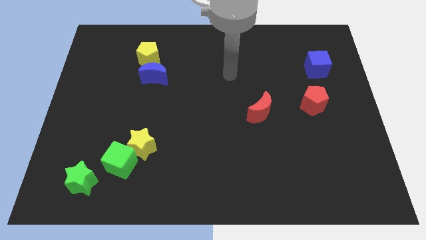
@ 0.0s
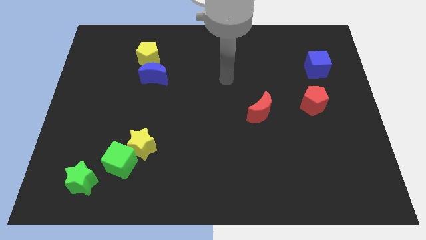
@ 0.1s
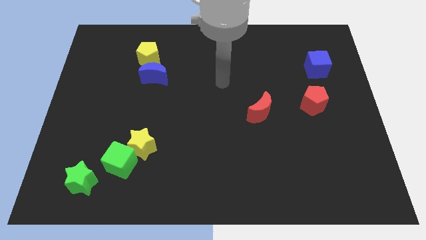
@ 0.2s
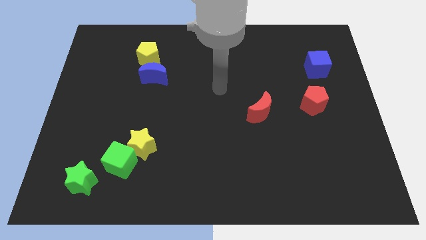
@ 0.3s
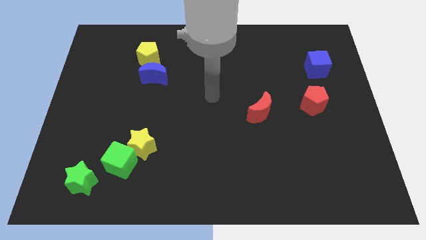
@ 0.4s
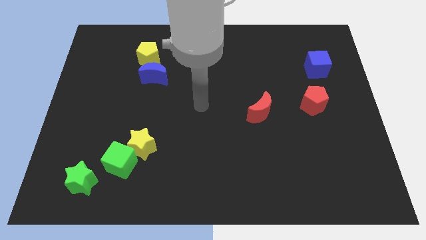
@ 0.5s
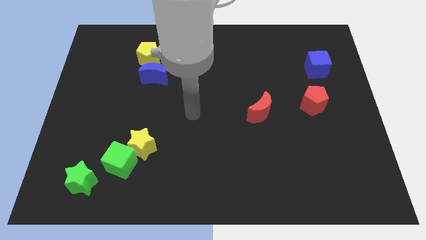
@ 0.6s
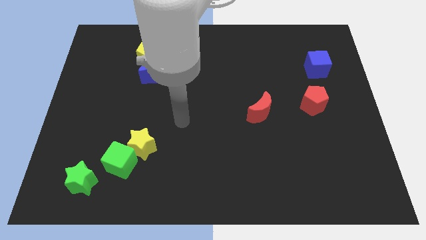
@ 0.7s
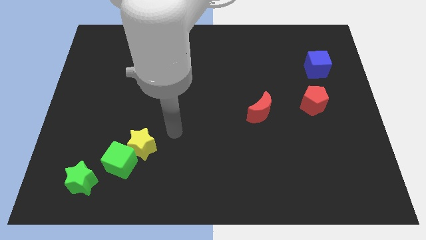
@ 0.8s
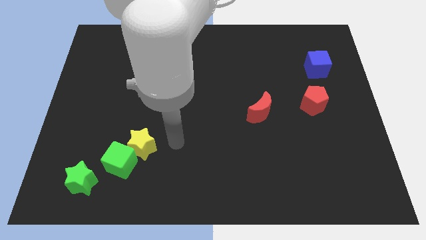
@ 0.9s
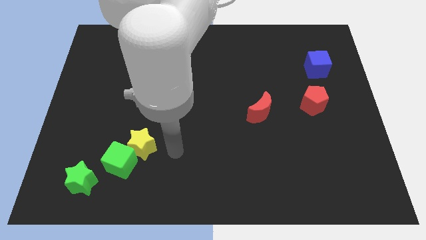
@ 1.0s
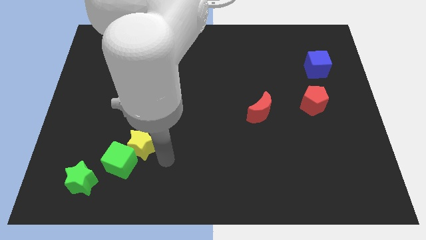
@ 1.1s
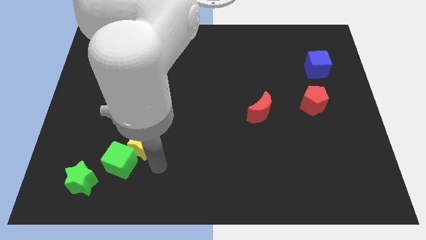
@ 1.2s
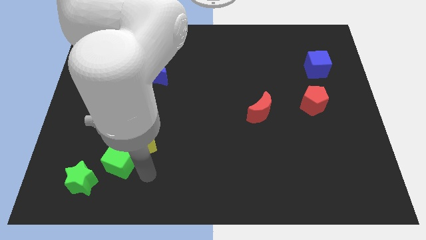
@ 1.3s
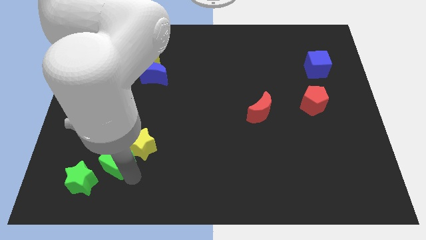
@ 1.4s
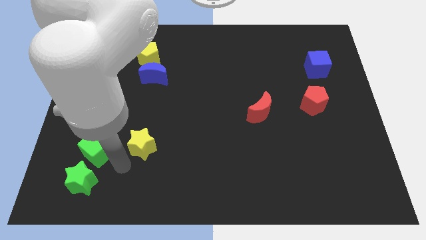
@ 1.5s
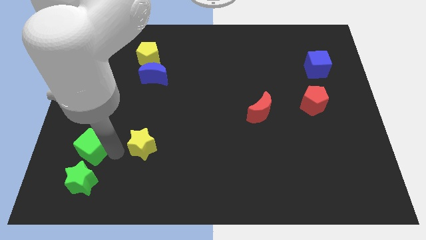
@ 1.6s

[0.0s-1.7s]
separate the yellow star from the green cube

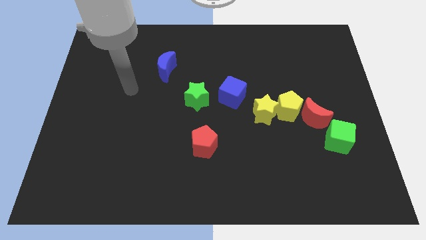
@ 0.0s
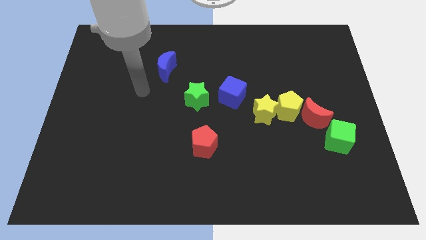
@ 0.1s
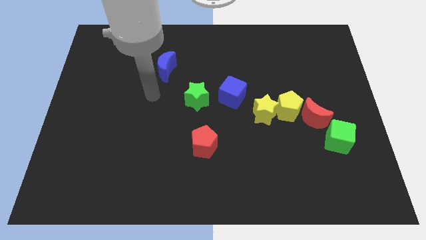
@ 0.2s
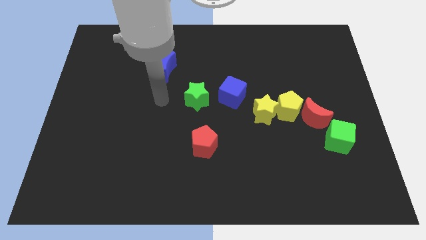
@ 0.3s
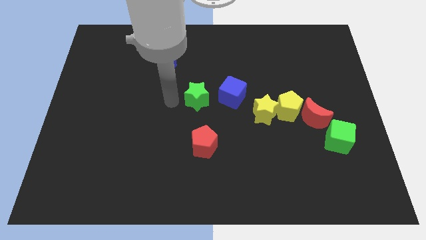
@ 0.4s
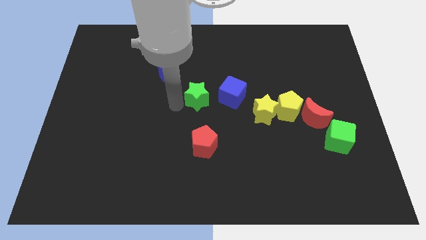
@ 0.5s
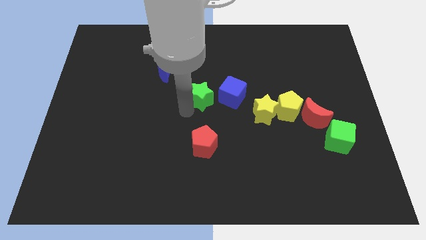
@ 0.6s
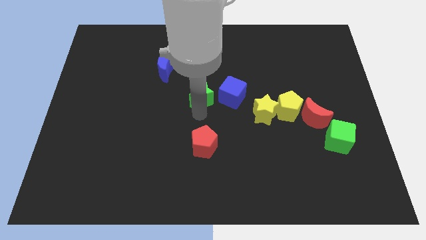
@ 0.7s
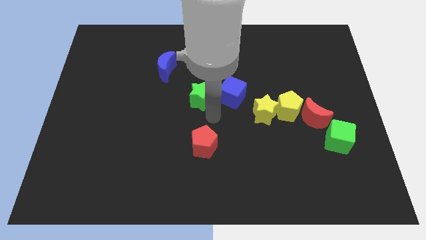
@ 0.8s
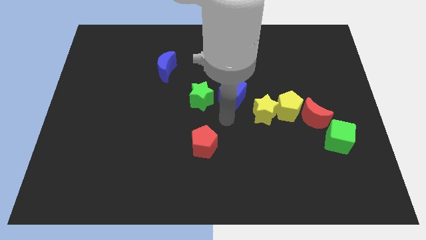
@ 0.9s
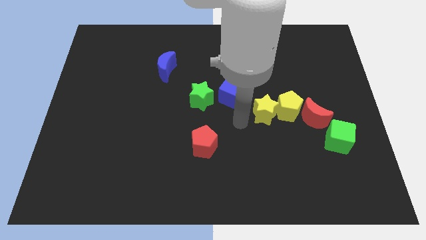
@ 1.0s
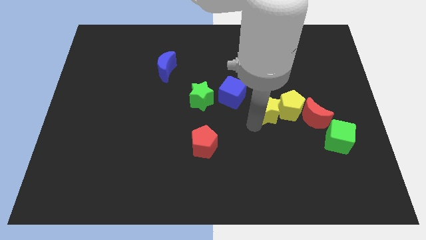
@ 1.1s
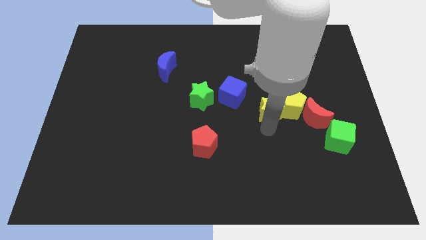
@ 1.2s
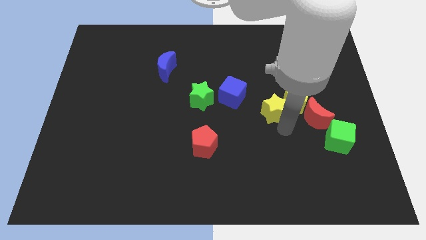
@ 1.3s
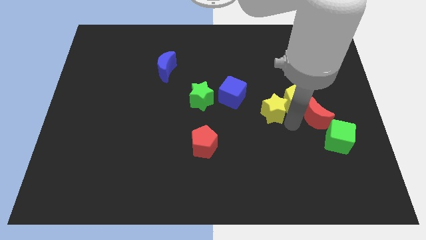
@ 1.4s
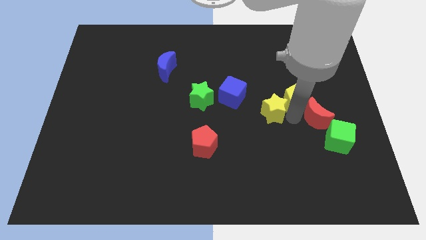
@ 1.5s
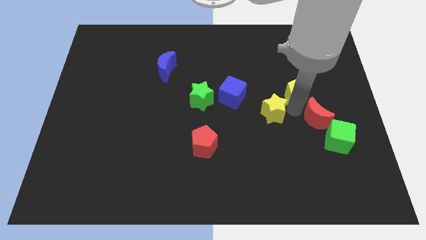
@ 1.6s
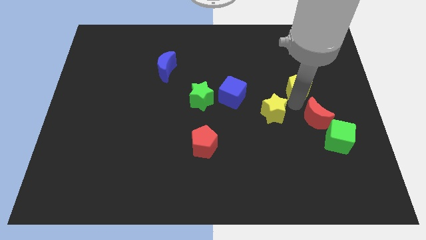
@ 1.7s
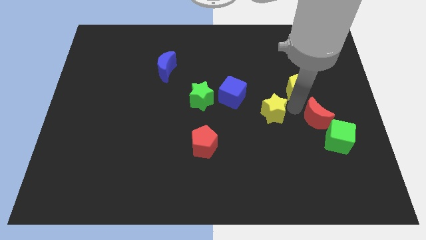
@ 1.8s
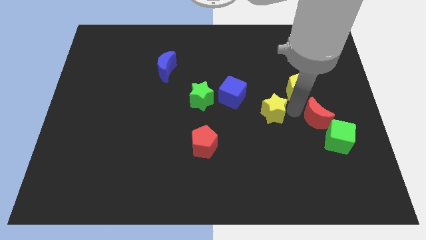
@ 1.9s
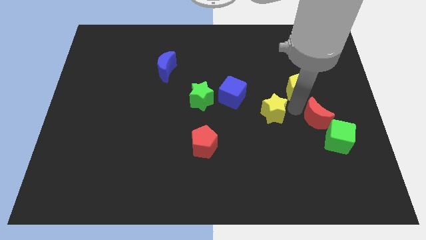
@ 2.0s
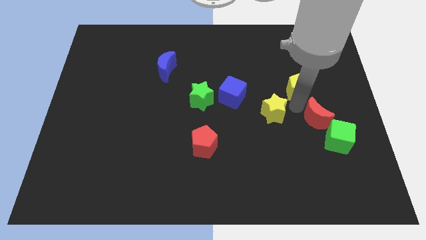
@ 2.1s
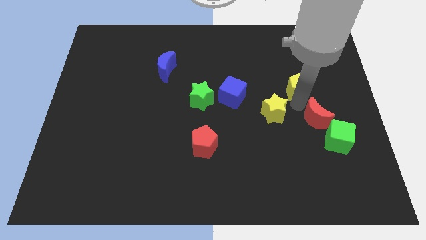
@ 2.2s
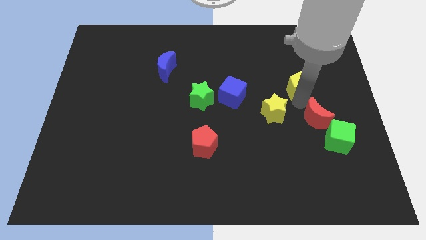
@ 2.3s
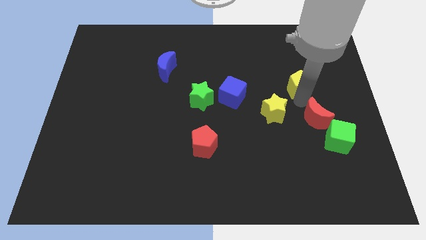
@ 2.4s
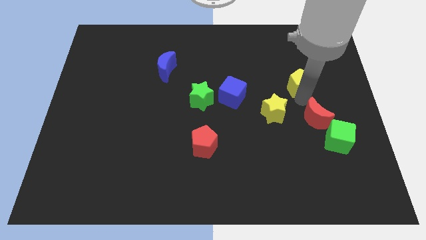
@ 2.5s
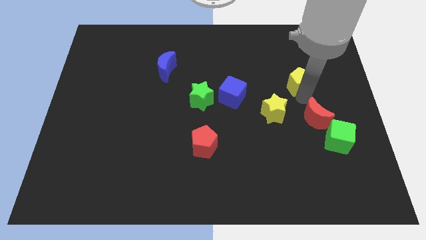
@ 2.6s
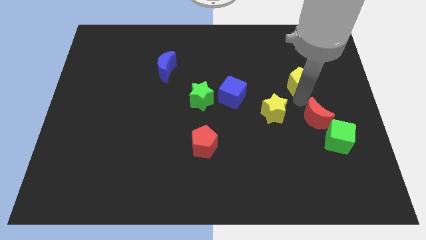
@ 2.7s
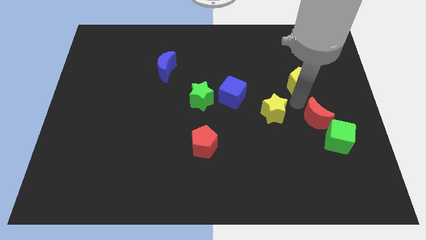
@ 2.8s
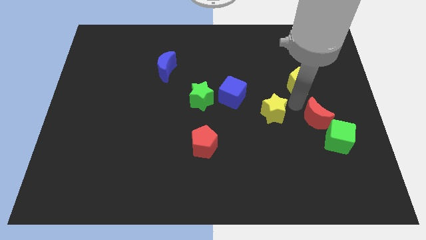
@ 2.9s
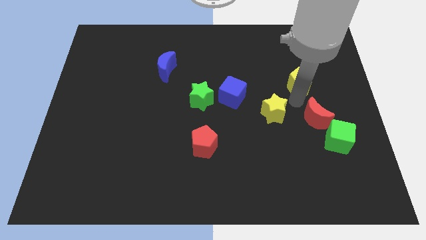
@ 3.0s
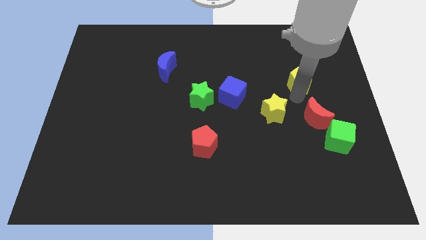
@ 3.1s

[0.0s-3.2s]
pull the yellow pentagon apart from the red moon and yellow star

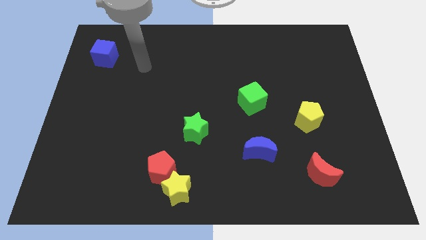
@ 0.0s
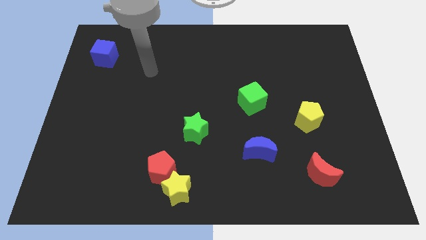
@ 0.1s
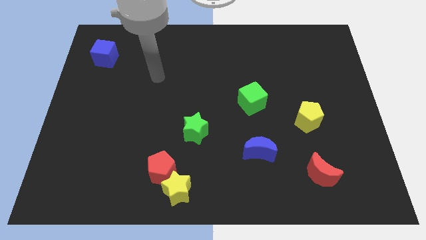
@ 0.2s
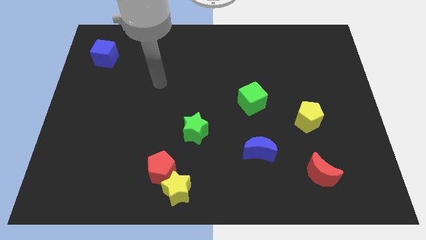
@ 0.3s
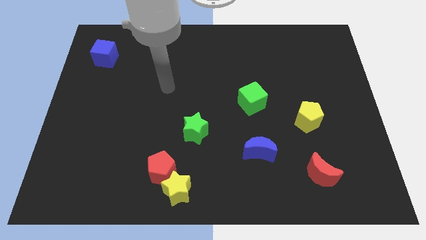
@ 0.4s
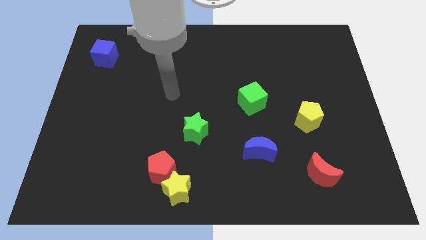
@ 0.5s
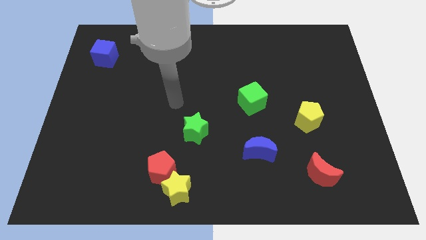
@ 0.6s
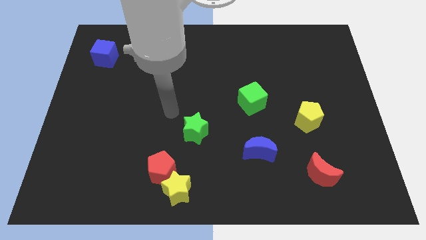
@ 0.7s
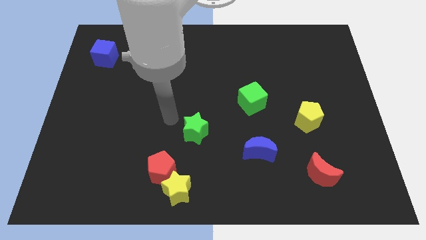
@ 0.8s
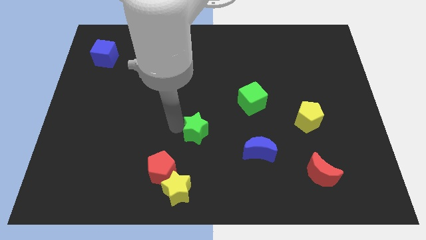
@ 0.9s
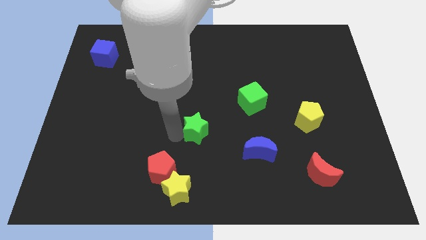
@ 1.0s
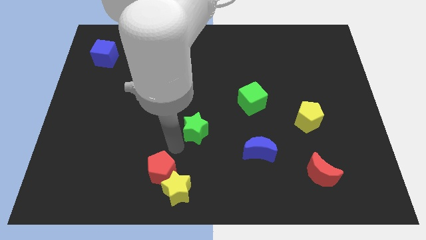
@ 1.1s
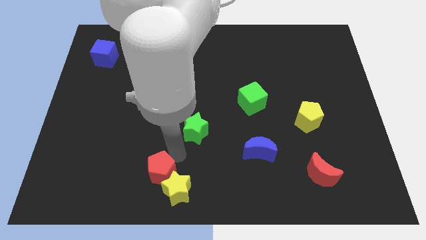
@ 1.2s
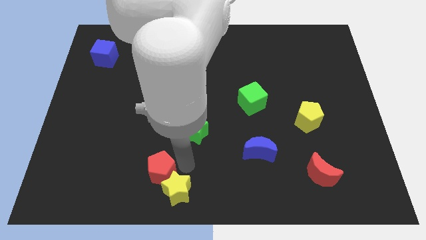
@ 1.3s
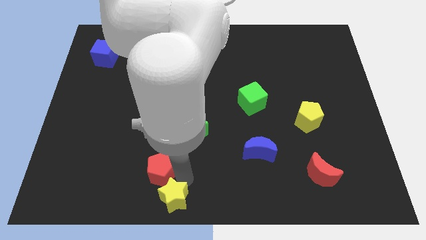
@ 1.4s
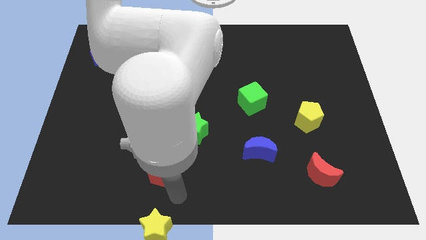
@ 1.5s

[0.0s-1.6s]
pull the red pentagon apart from the yellow star

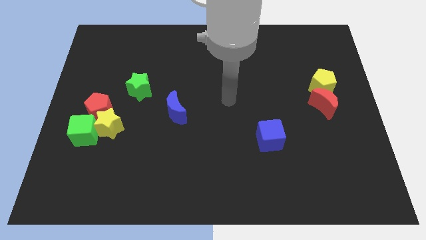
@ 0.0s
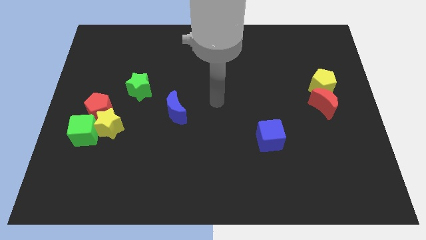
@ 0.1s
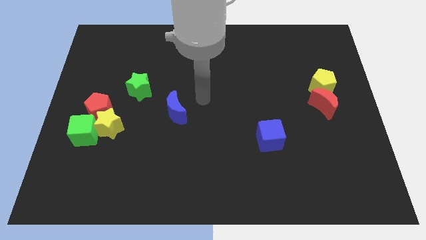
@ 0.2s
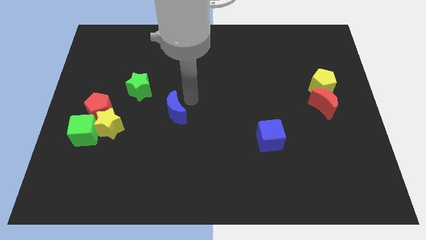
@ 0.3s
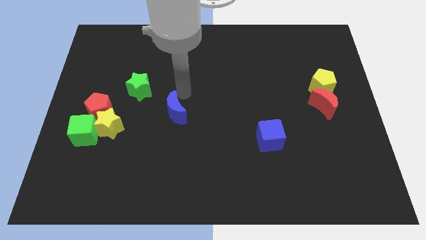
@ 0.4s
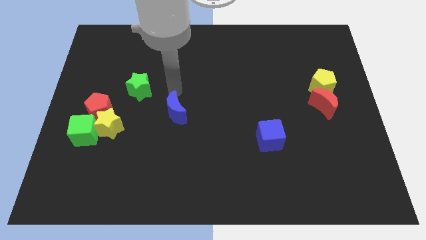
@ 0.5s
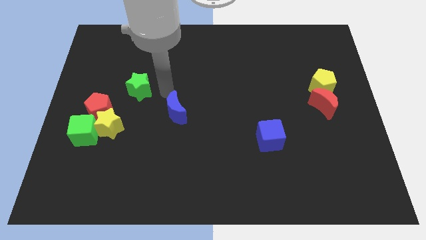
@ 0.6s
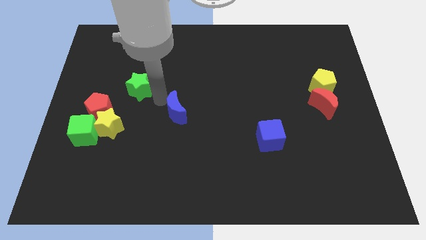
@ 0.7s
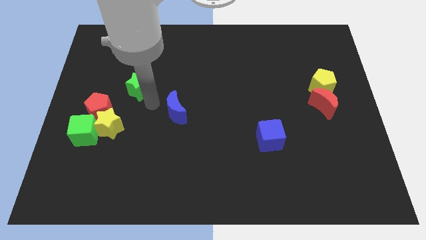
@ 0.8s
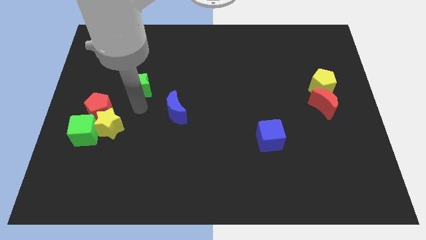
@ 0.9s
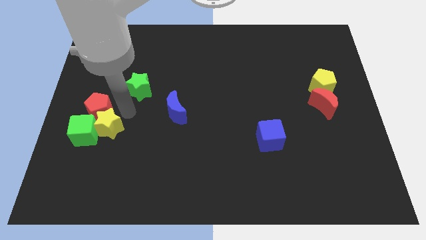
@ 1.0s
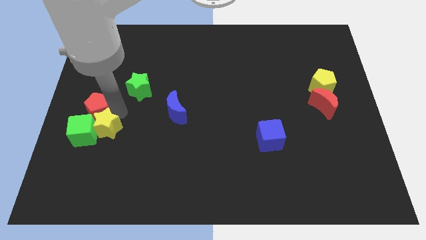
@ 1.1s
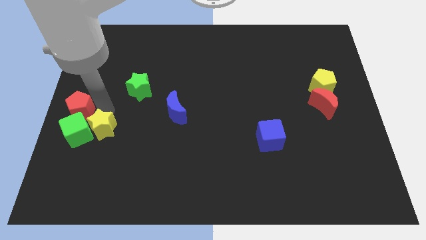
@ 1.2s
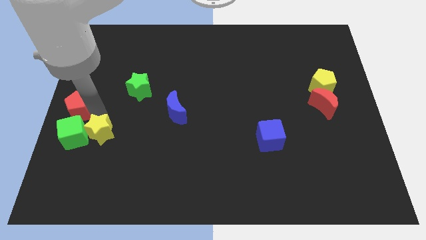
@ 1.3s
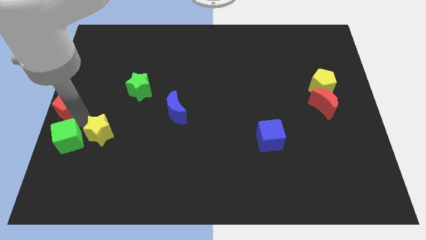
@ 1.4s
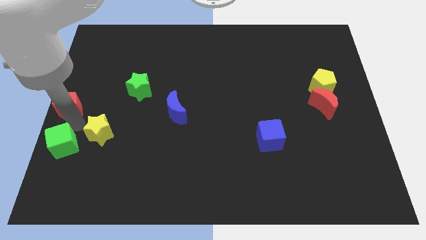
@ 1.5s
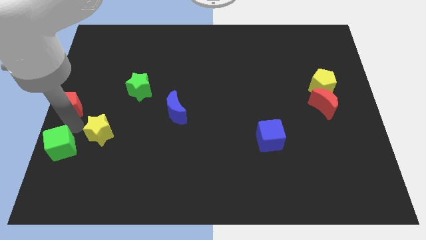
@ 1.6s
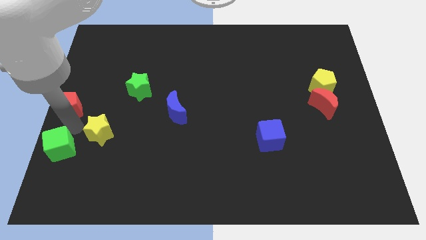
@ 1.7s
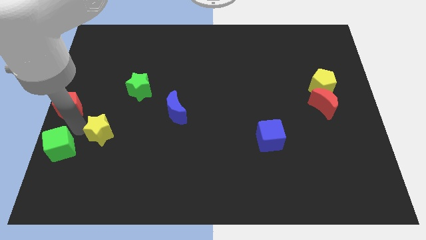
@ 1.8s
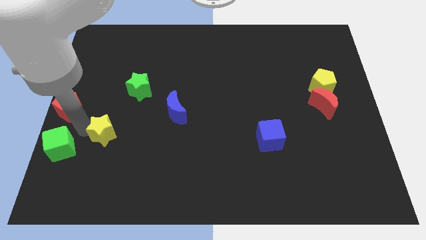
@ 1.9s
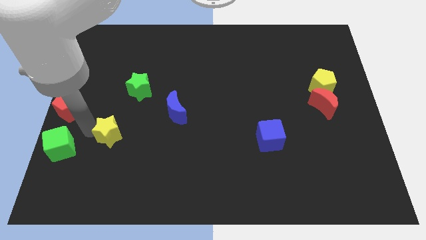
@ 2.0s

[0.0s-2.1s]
pull the yellow star apart from the green cube and red pentagon

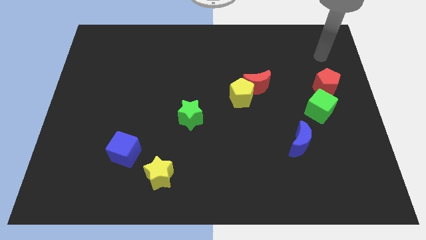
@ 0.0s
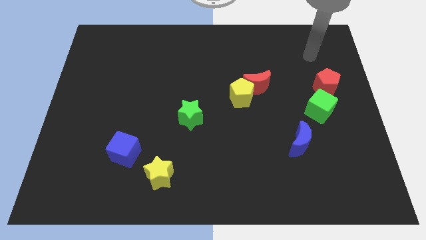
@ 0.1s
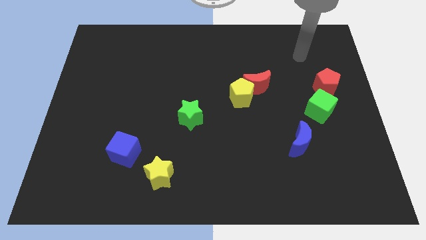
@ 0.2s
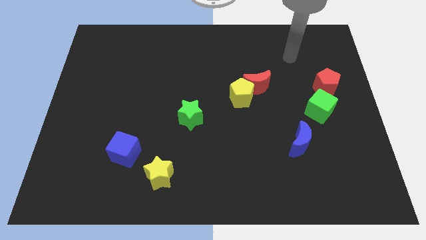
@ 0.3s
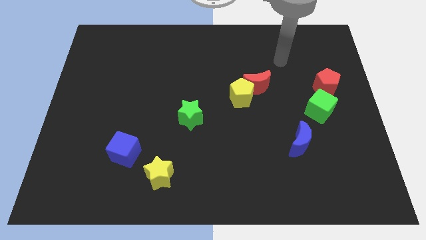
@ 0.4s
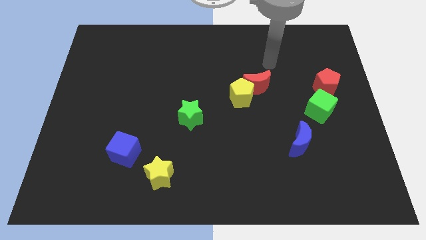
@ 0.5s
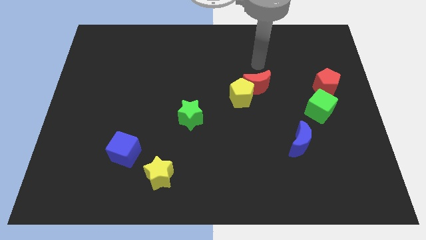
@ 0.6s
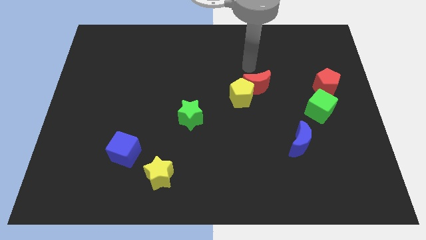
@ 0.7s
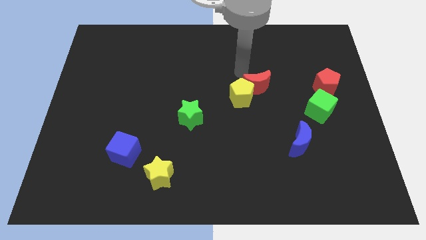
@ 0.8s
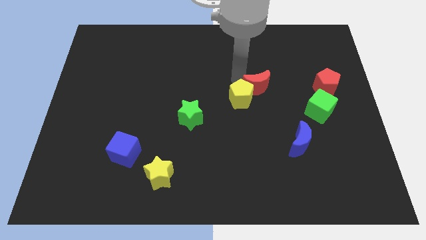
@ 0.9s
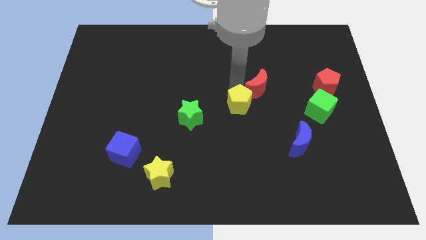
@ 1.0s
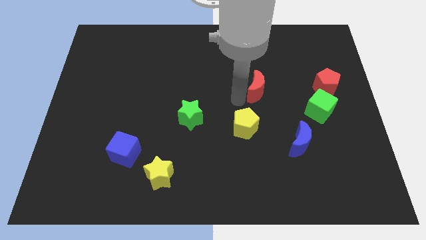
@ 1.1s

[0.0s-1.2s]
separate the red moon from the yellow pentagon
